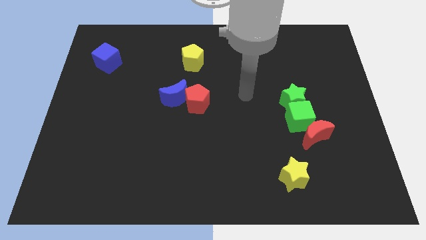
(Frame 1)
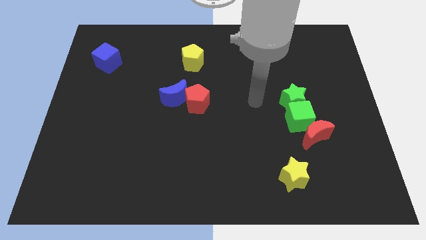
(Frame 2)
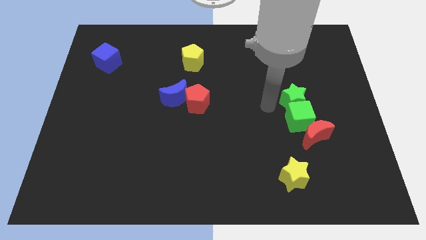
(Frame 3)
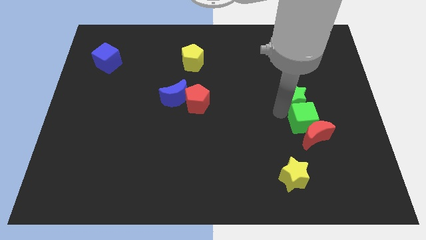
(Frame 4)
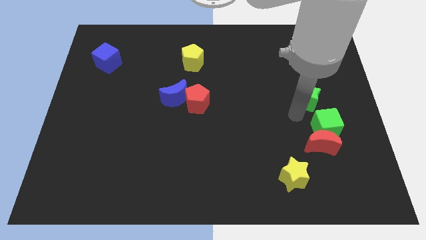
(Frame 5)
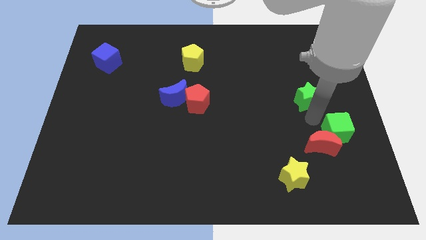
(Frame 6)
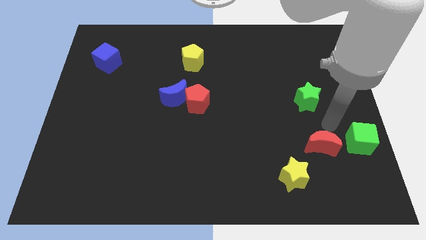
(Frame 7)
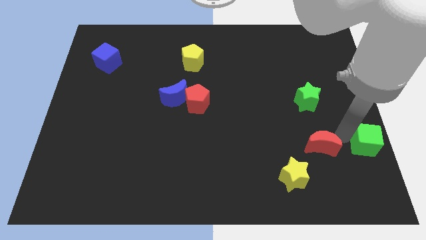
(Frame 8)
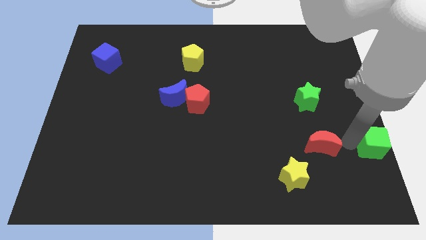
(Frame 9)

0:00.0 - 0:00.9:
separate the red moon from the green cube

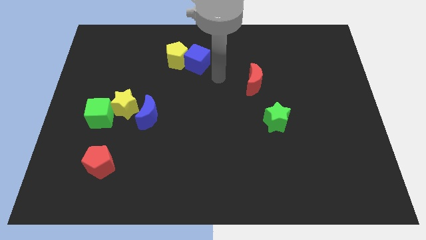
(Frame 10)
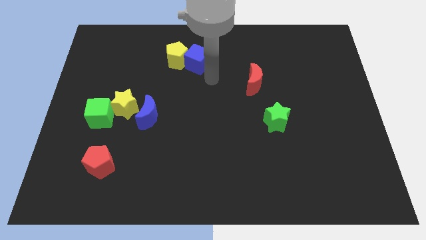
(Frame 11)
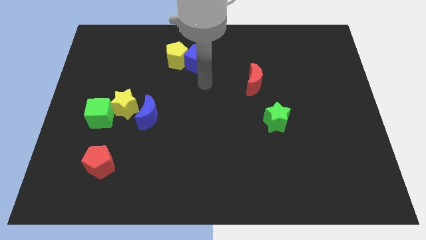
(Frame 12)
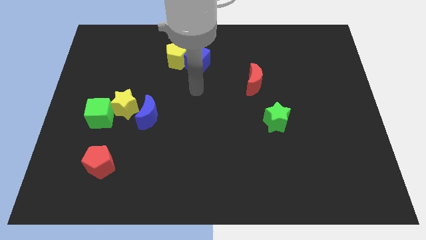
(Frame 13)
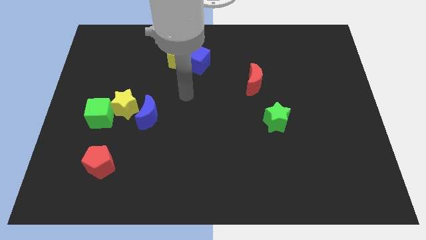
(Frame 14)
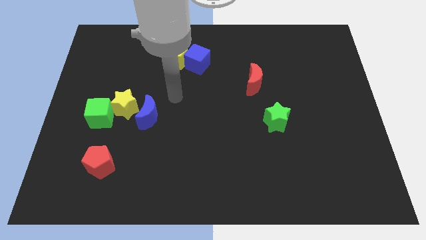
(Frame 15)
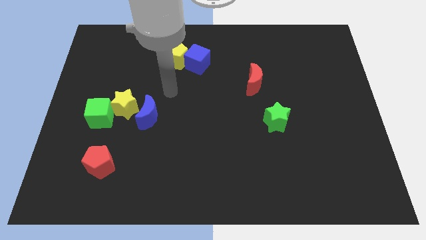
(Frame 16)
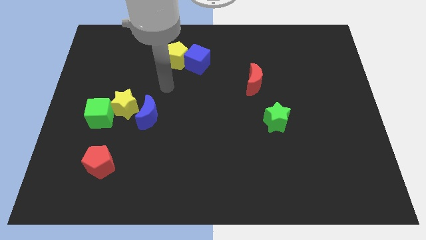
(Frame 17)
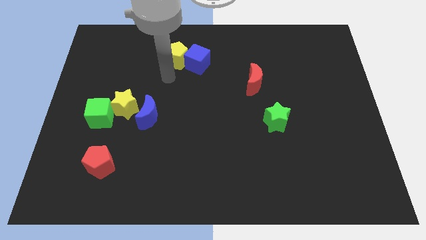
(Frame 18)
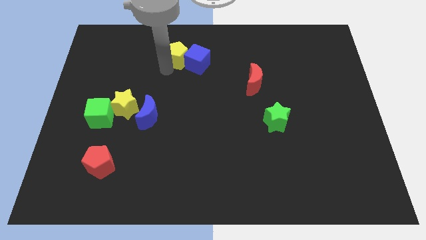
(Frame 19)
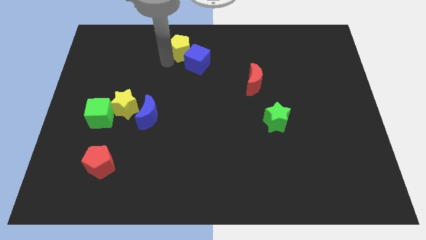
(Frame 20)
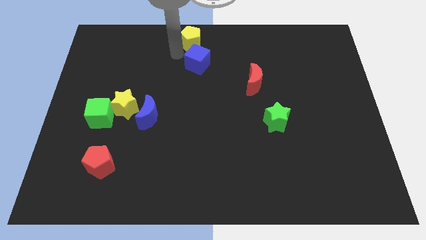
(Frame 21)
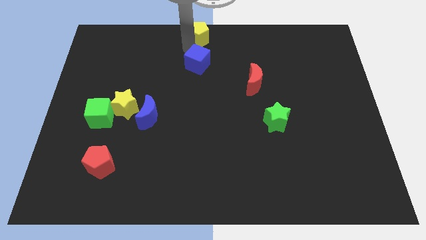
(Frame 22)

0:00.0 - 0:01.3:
move the blue cube away from the yellow pentagon

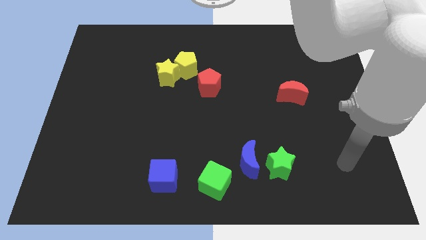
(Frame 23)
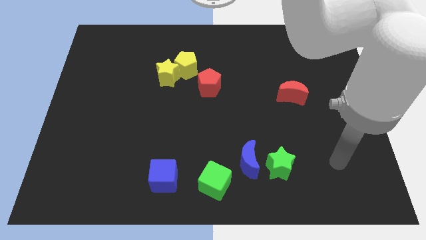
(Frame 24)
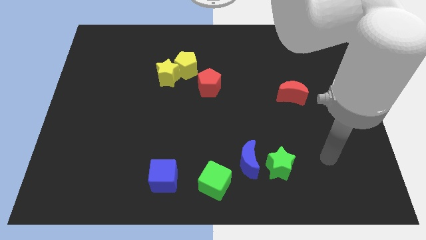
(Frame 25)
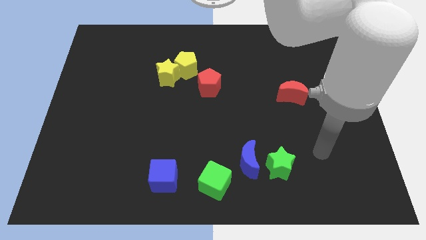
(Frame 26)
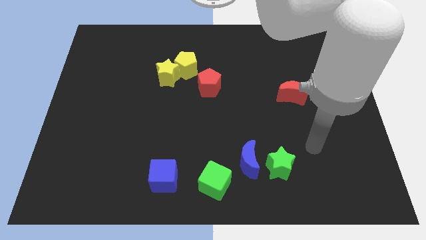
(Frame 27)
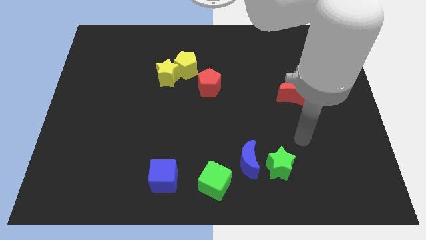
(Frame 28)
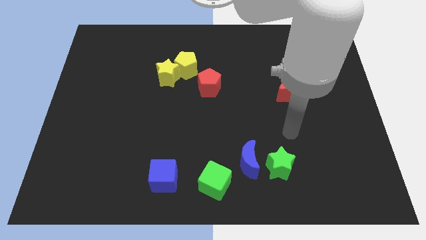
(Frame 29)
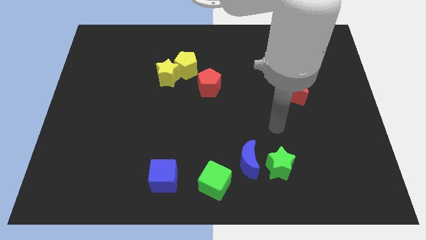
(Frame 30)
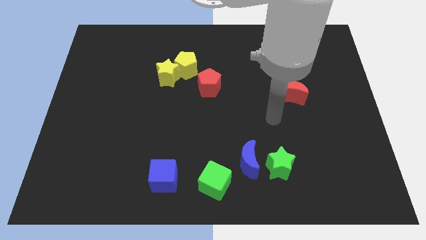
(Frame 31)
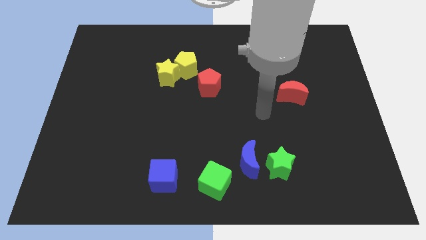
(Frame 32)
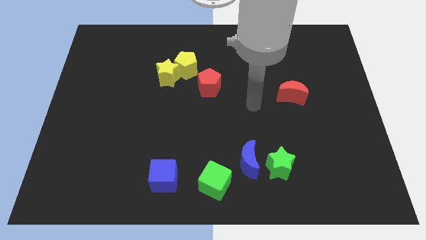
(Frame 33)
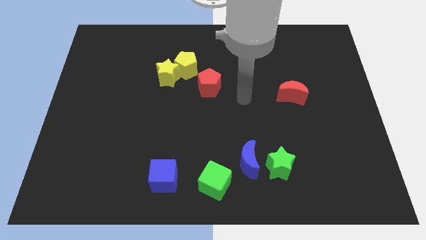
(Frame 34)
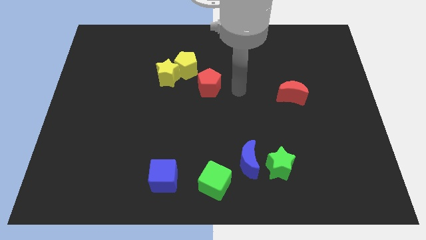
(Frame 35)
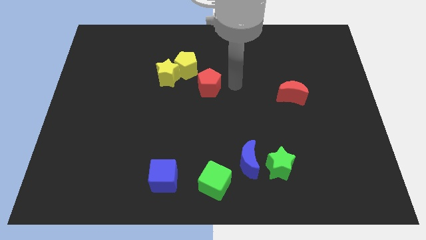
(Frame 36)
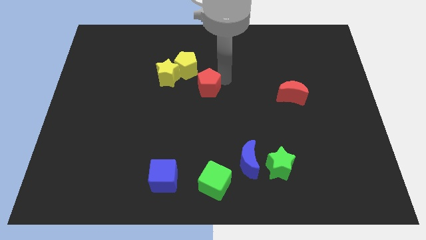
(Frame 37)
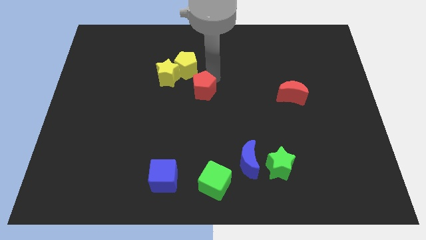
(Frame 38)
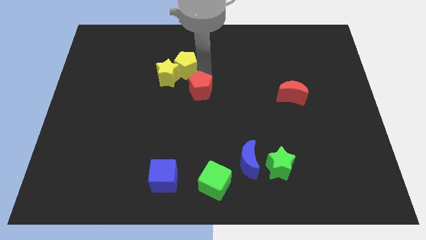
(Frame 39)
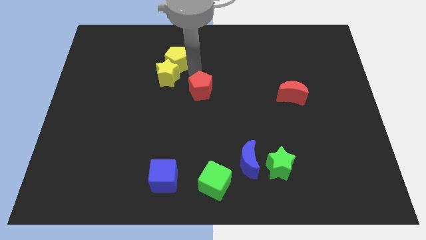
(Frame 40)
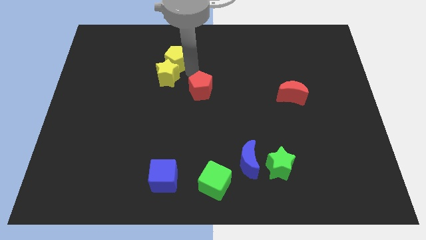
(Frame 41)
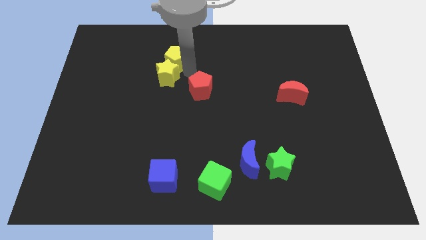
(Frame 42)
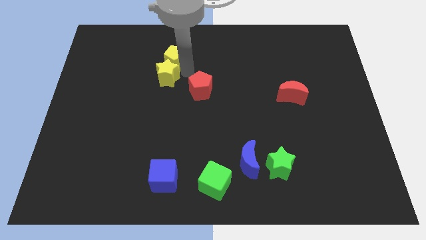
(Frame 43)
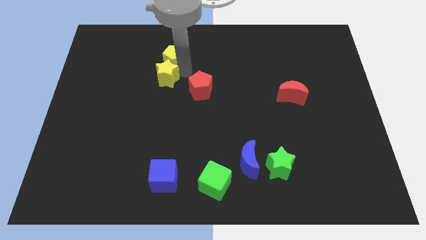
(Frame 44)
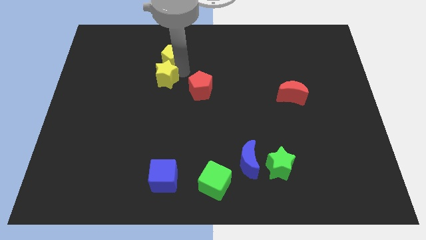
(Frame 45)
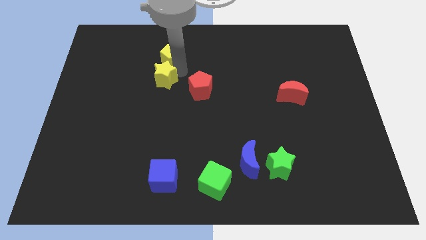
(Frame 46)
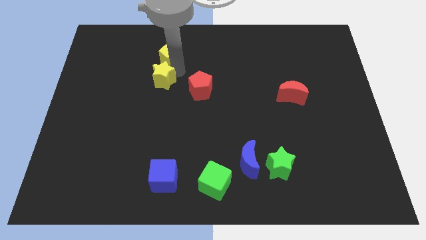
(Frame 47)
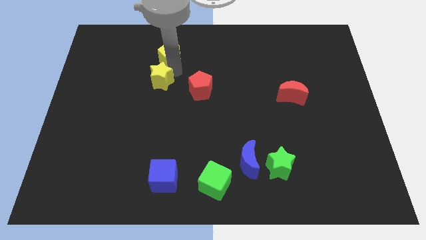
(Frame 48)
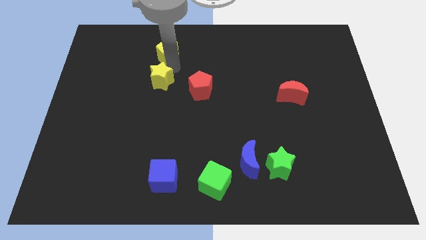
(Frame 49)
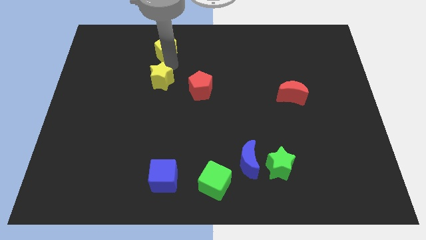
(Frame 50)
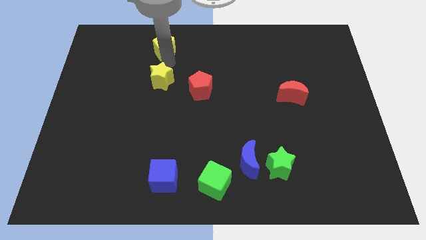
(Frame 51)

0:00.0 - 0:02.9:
separate the yellow star from the yellow pentagon

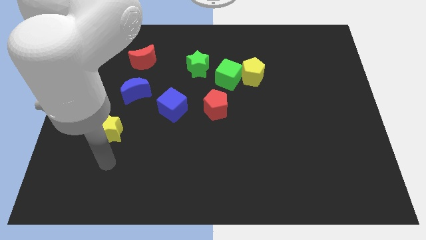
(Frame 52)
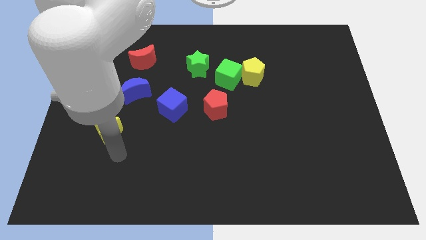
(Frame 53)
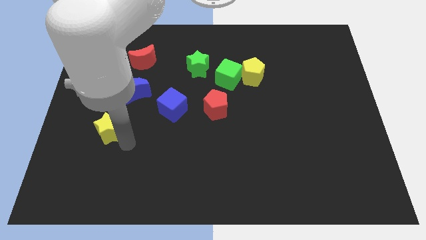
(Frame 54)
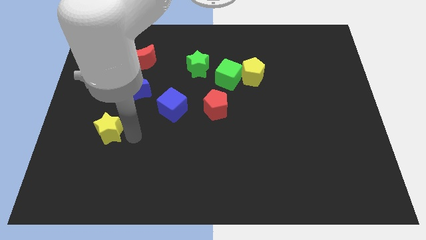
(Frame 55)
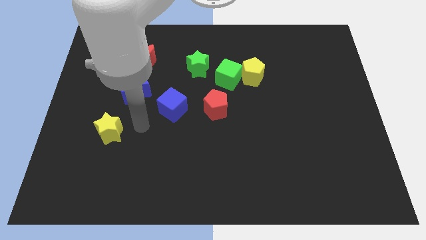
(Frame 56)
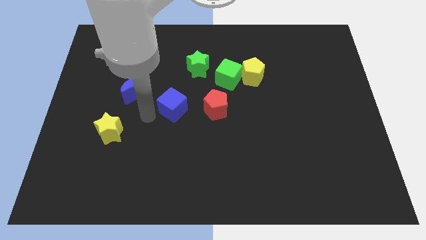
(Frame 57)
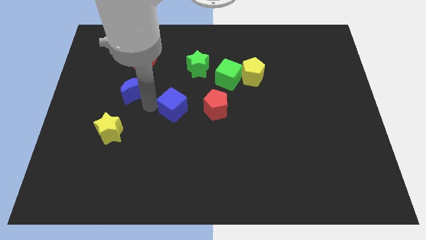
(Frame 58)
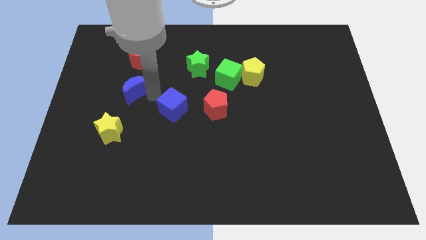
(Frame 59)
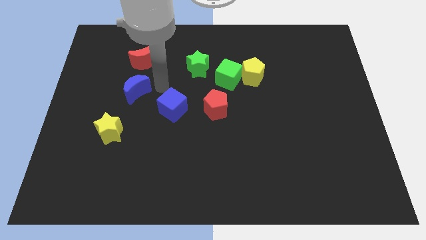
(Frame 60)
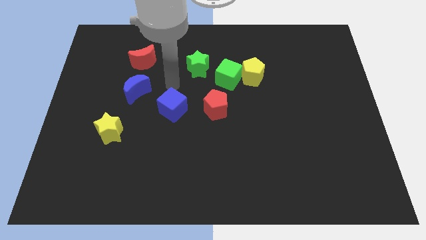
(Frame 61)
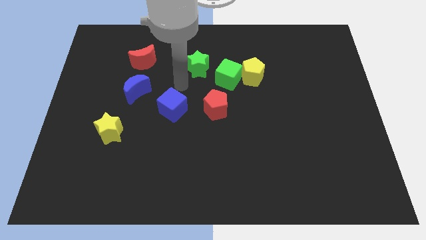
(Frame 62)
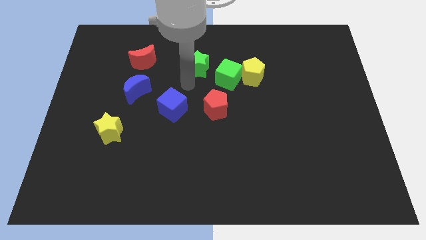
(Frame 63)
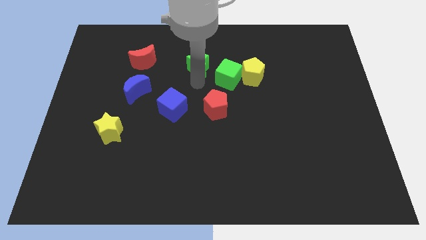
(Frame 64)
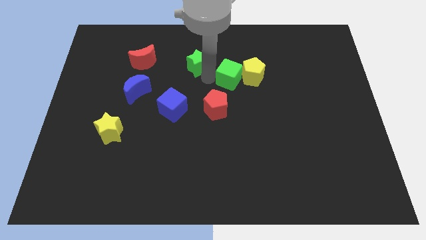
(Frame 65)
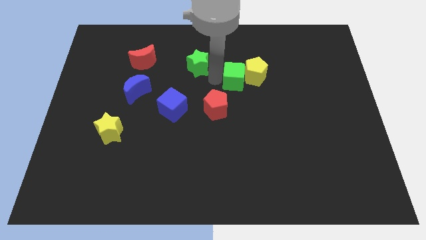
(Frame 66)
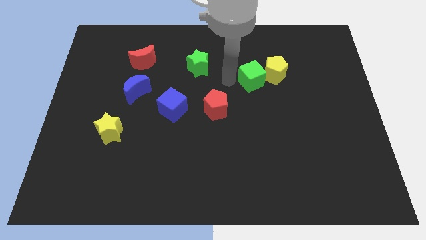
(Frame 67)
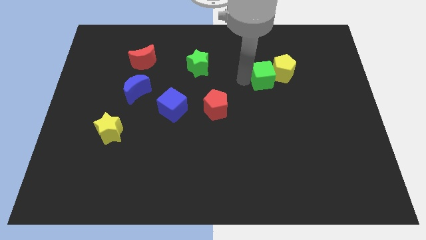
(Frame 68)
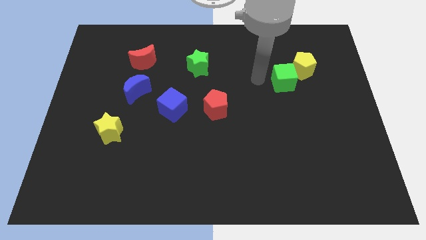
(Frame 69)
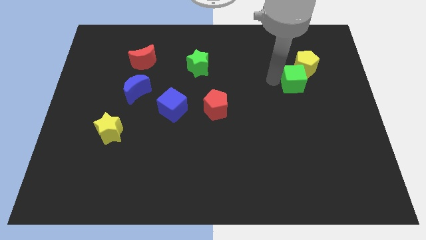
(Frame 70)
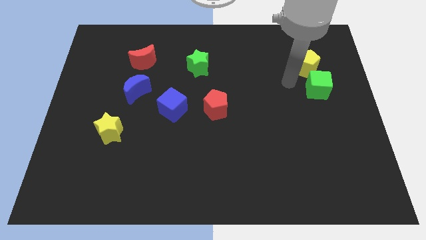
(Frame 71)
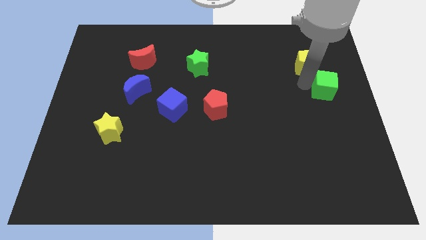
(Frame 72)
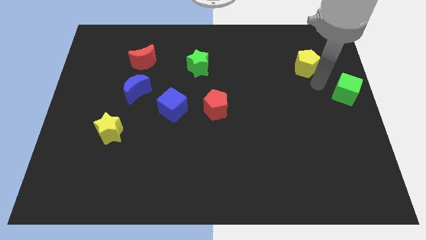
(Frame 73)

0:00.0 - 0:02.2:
pull the yellow pentagon apart from the green cube

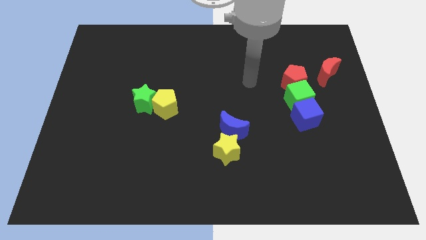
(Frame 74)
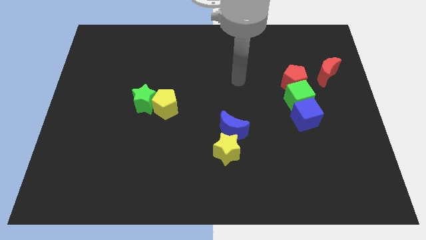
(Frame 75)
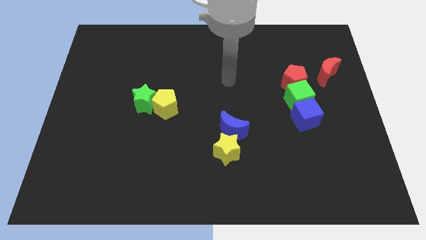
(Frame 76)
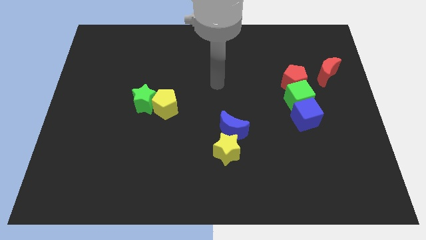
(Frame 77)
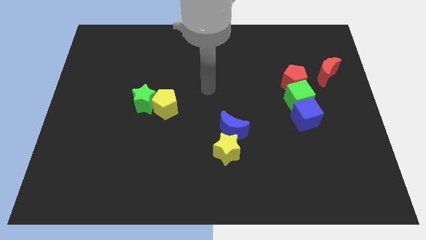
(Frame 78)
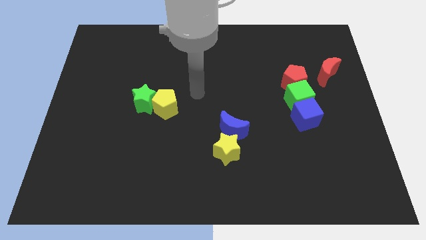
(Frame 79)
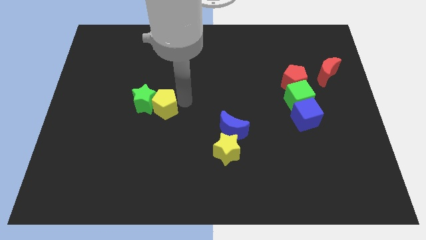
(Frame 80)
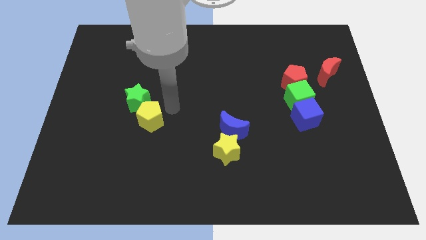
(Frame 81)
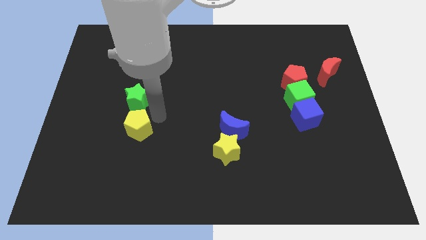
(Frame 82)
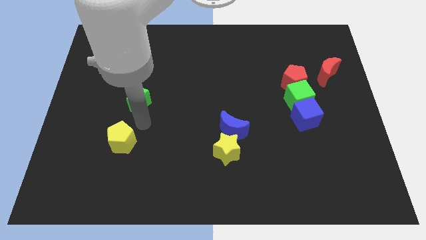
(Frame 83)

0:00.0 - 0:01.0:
separate the green star from the yellow pentagon

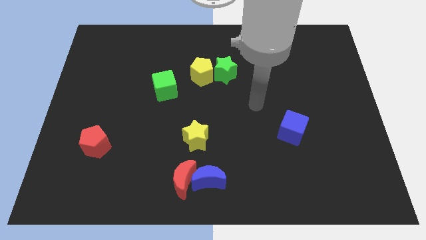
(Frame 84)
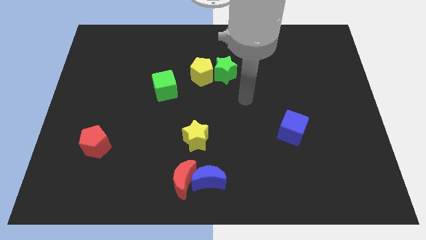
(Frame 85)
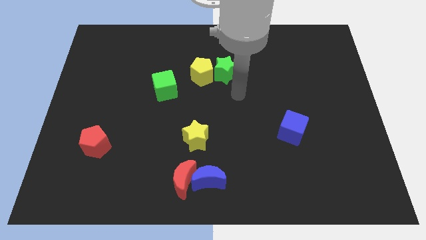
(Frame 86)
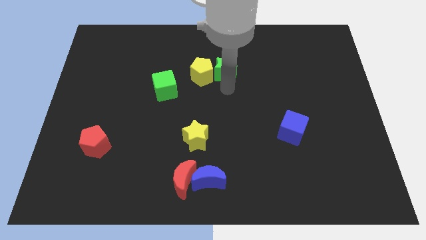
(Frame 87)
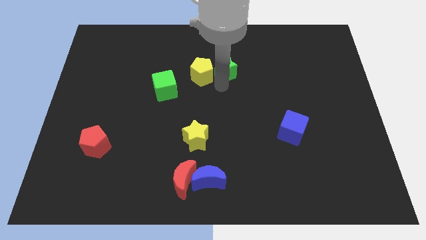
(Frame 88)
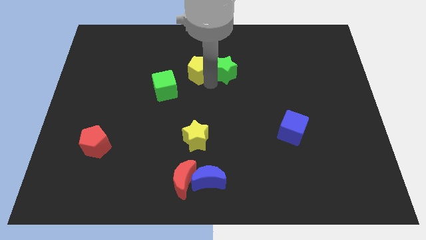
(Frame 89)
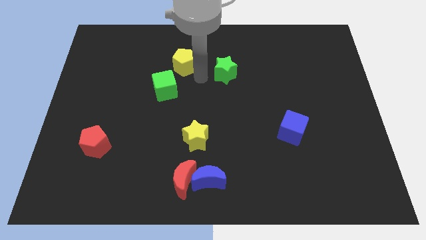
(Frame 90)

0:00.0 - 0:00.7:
move the green star away from the yellow pentagon

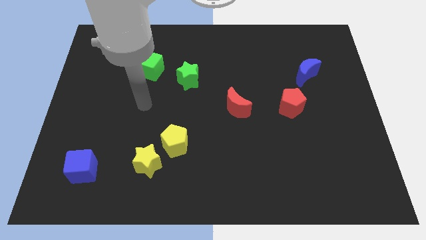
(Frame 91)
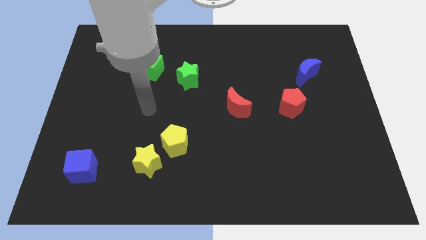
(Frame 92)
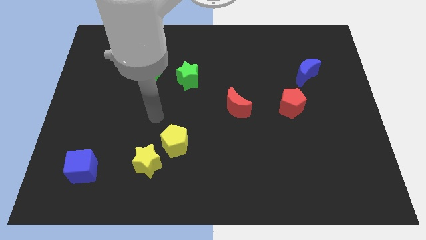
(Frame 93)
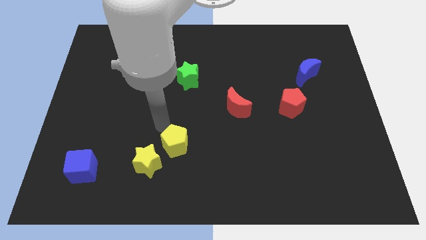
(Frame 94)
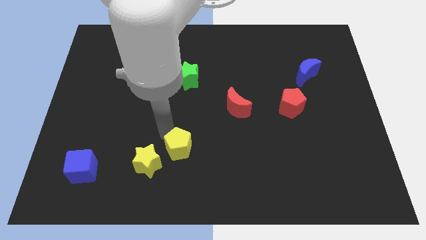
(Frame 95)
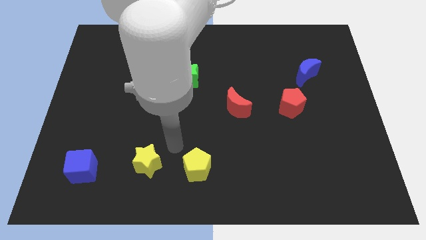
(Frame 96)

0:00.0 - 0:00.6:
pull the yellow star apart from the yellow pentagon
